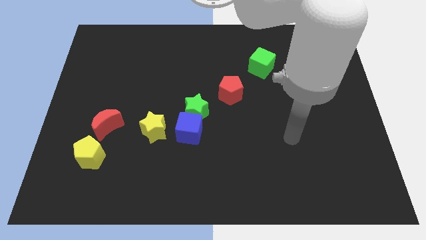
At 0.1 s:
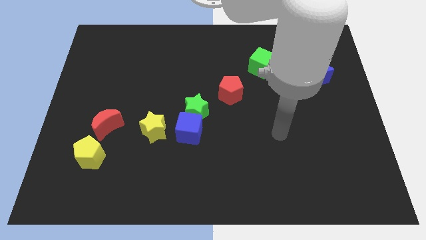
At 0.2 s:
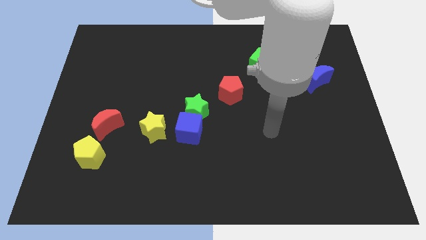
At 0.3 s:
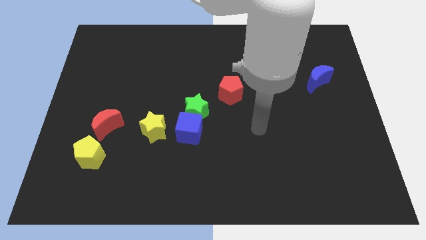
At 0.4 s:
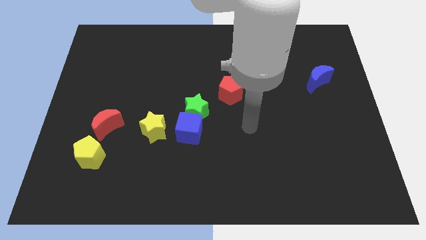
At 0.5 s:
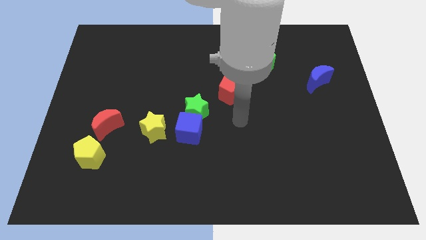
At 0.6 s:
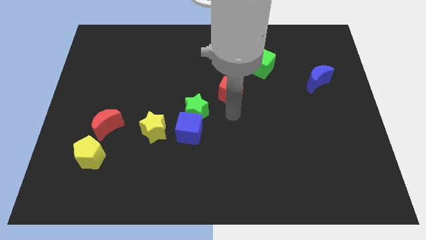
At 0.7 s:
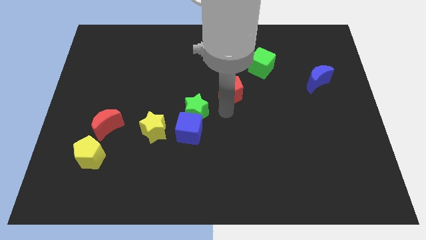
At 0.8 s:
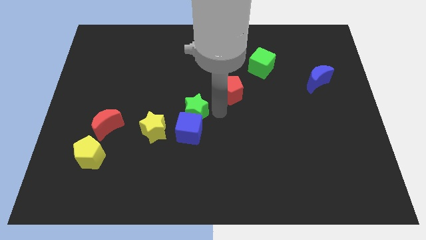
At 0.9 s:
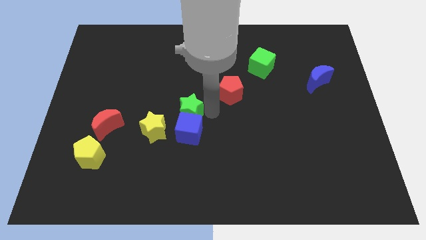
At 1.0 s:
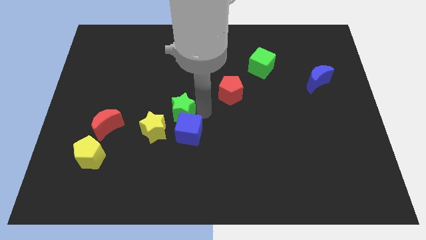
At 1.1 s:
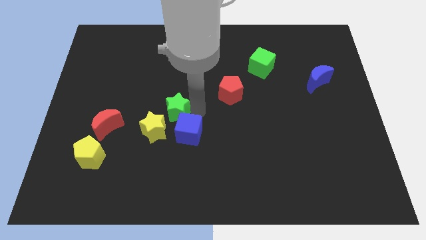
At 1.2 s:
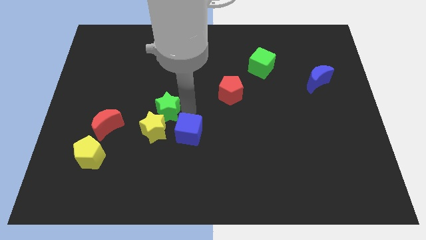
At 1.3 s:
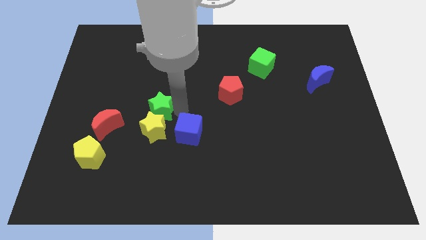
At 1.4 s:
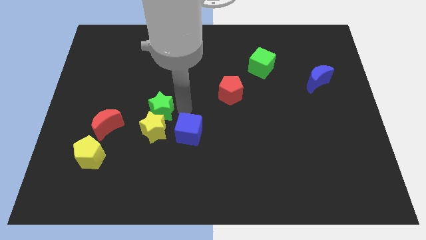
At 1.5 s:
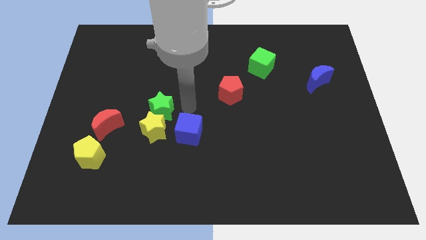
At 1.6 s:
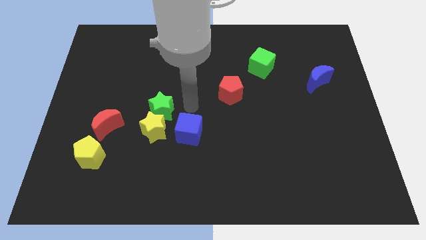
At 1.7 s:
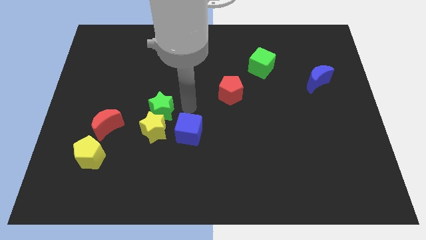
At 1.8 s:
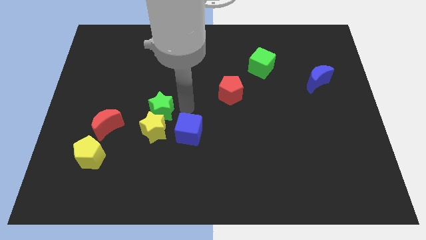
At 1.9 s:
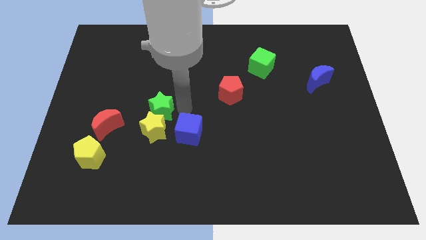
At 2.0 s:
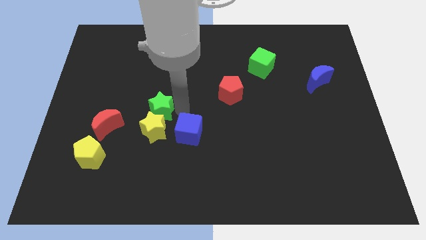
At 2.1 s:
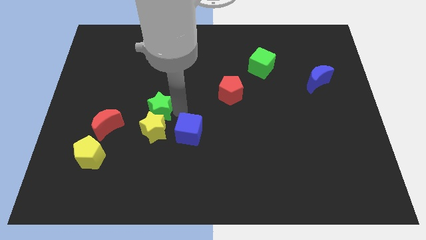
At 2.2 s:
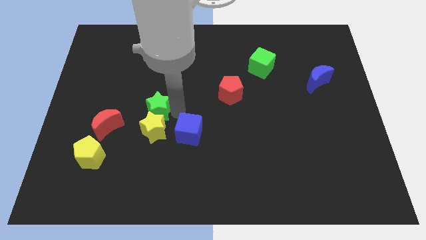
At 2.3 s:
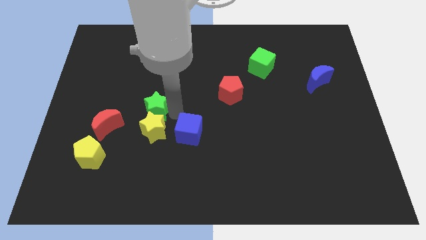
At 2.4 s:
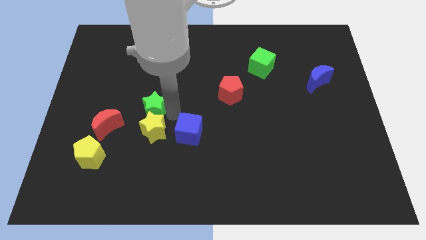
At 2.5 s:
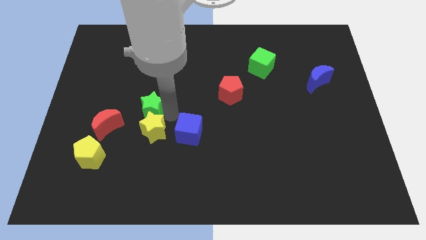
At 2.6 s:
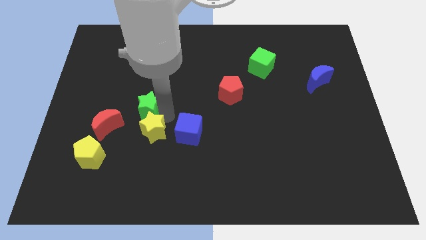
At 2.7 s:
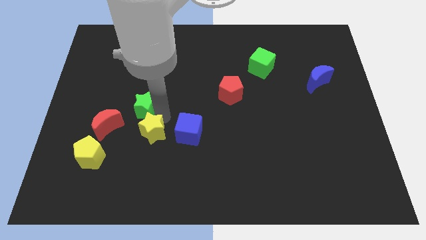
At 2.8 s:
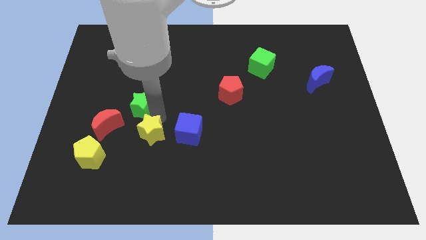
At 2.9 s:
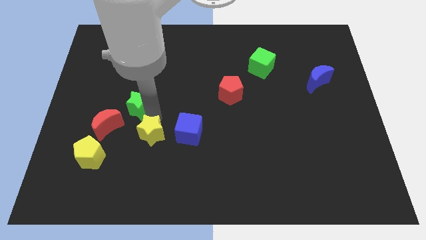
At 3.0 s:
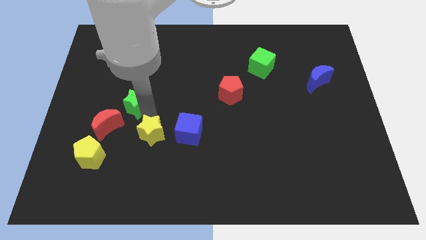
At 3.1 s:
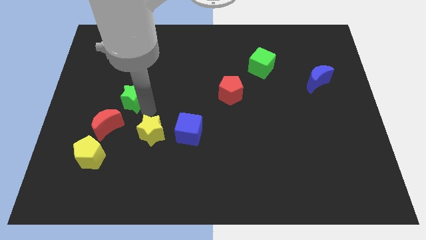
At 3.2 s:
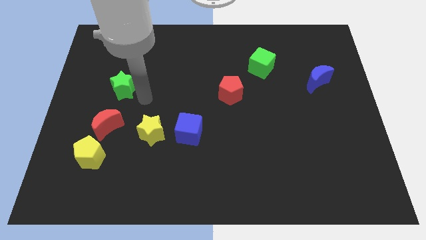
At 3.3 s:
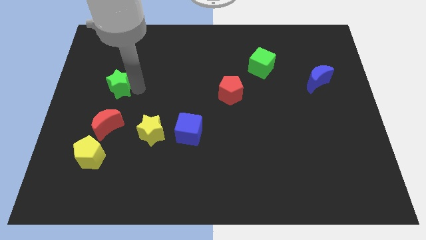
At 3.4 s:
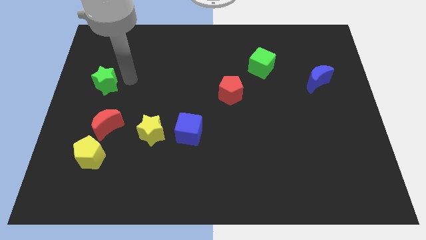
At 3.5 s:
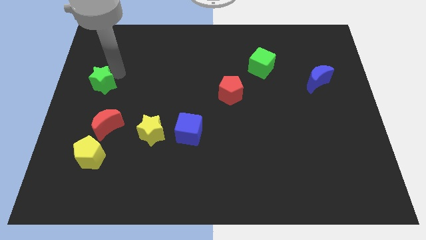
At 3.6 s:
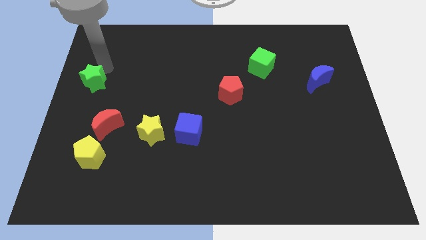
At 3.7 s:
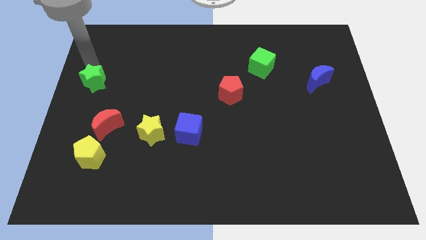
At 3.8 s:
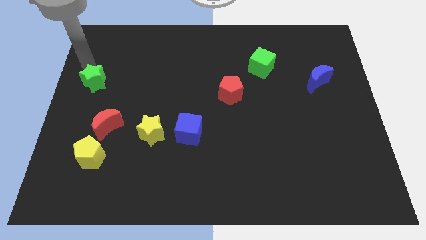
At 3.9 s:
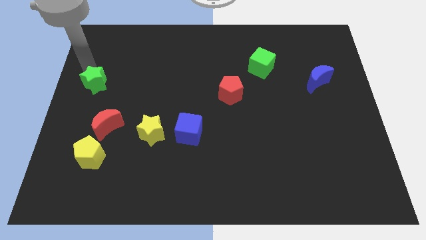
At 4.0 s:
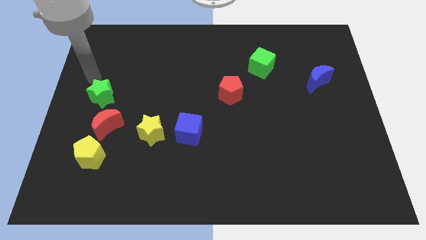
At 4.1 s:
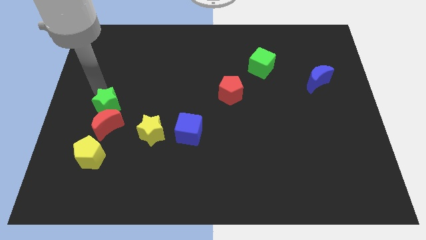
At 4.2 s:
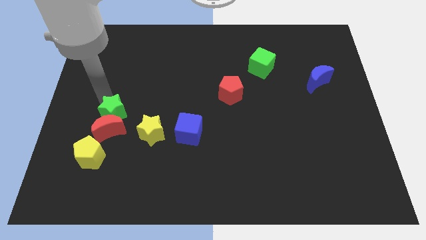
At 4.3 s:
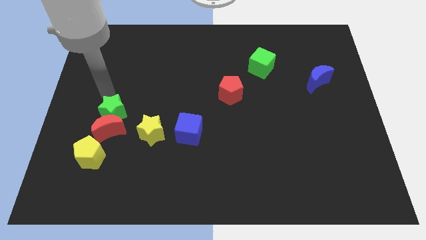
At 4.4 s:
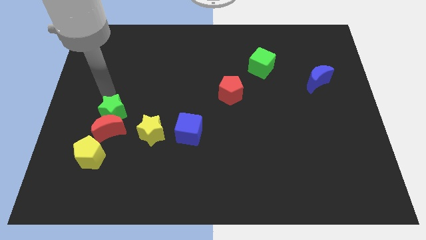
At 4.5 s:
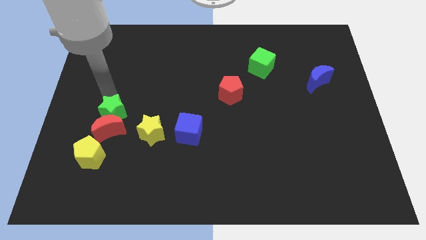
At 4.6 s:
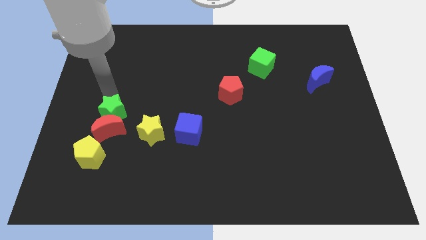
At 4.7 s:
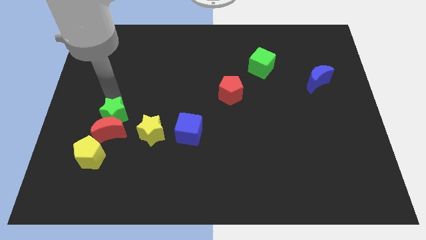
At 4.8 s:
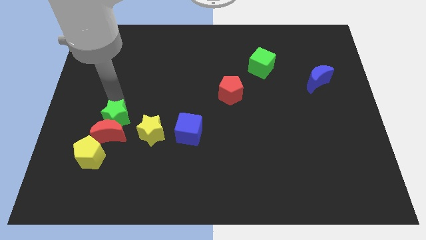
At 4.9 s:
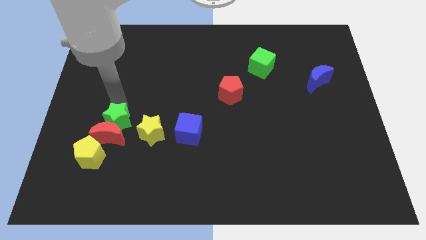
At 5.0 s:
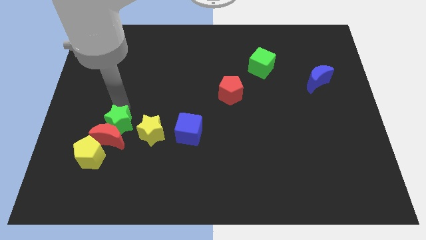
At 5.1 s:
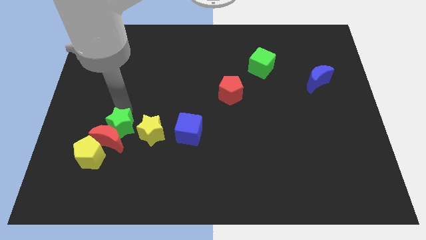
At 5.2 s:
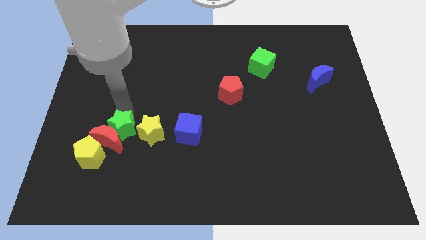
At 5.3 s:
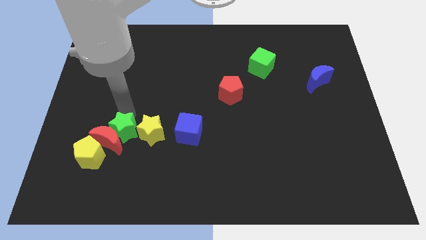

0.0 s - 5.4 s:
put the green star to the bottom left of the yellow star

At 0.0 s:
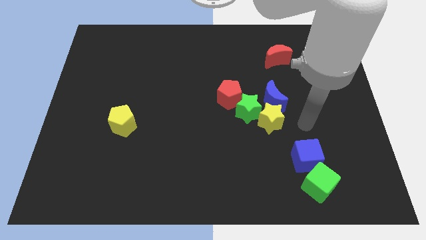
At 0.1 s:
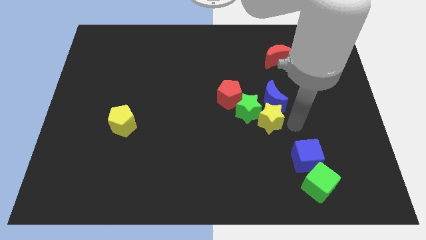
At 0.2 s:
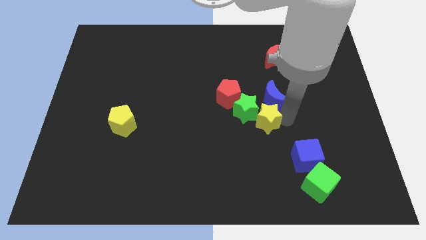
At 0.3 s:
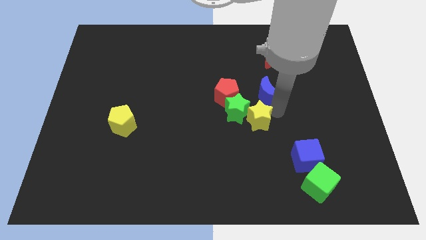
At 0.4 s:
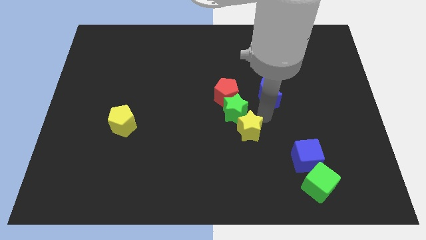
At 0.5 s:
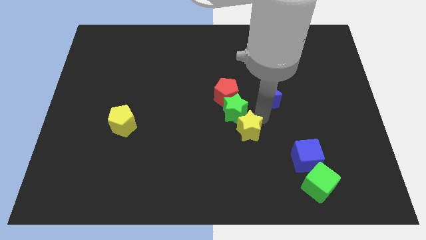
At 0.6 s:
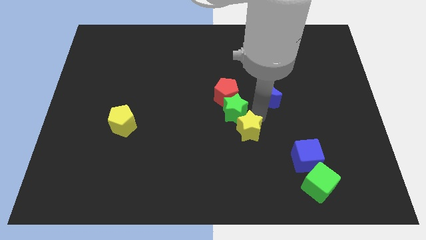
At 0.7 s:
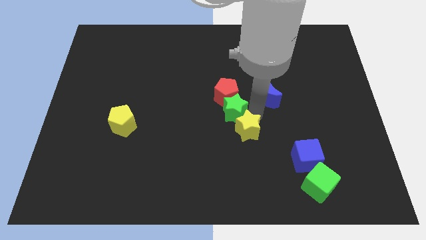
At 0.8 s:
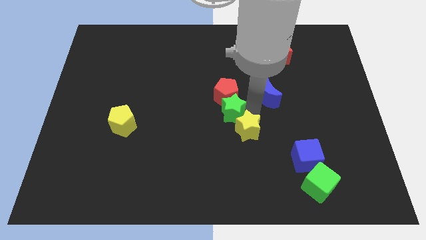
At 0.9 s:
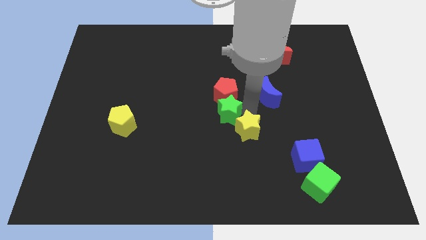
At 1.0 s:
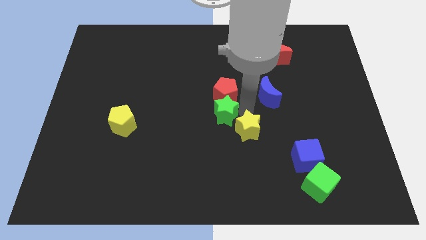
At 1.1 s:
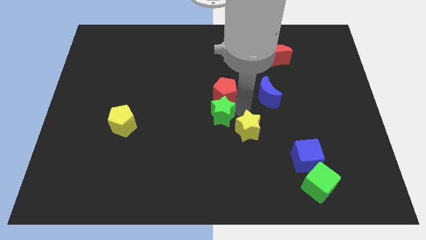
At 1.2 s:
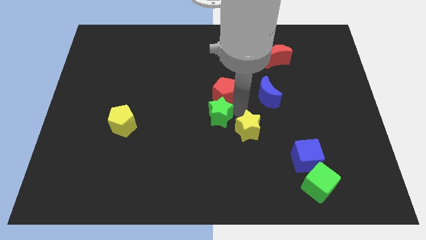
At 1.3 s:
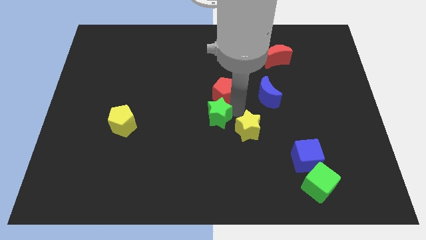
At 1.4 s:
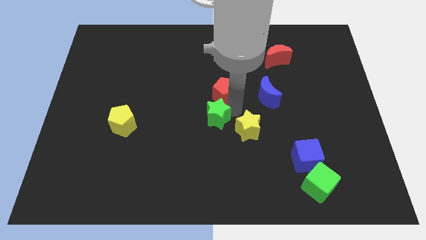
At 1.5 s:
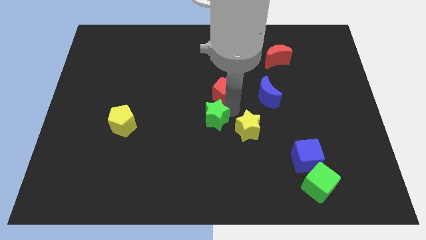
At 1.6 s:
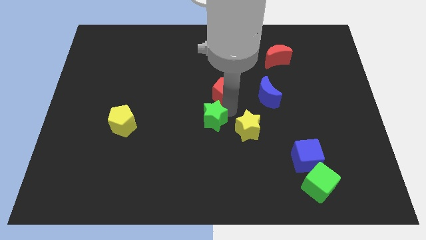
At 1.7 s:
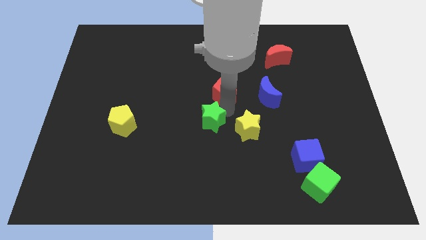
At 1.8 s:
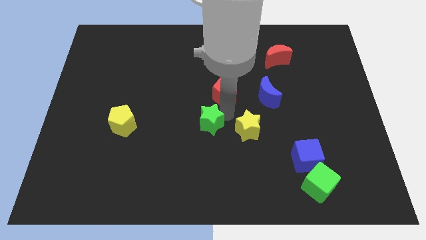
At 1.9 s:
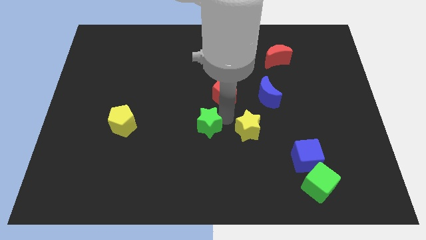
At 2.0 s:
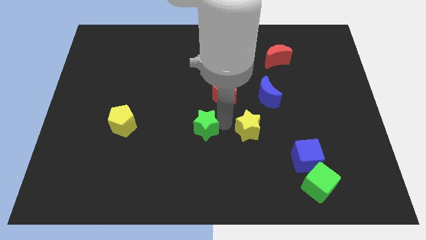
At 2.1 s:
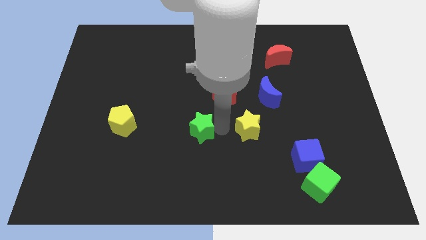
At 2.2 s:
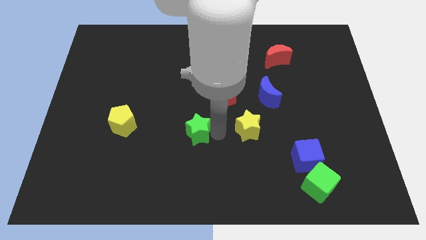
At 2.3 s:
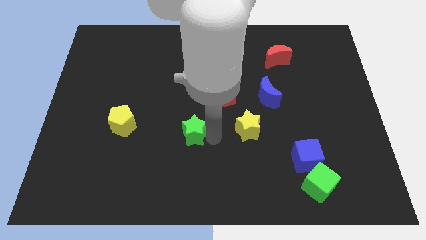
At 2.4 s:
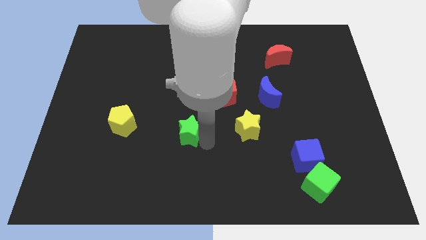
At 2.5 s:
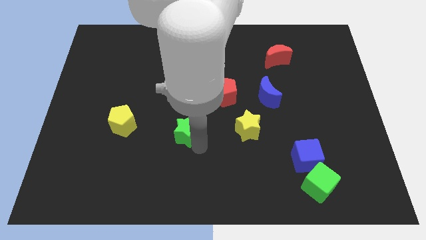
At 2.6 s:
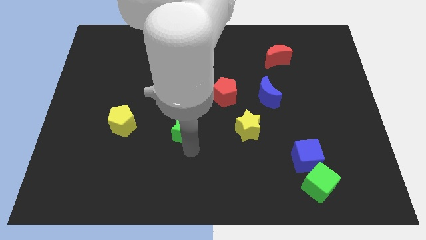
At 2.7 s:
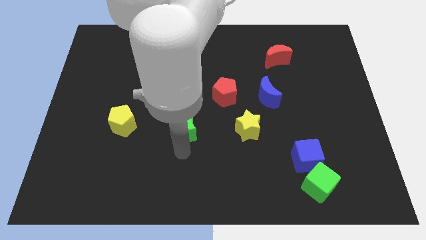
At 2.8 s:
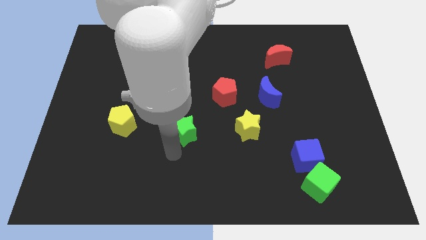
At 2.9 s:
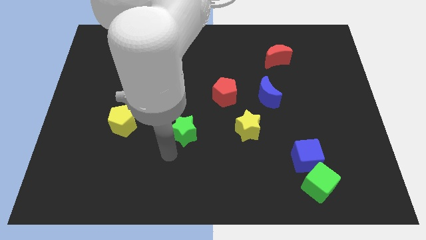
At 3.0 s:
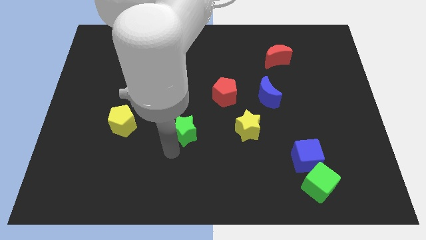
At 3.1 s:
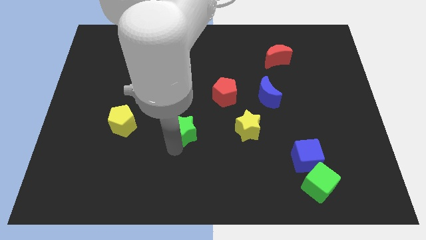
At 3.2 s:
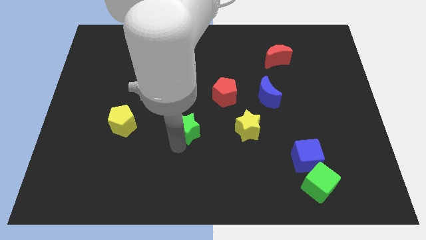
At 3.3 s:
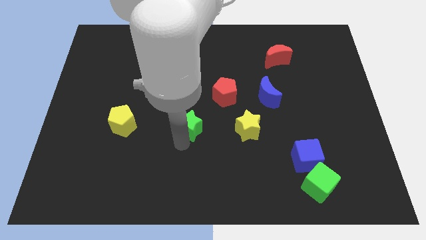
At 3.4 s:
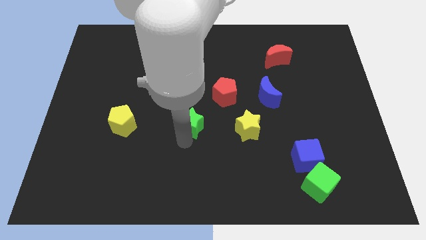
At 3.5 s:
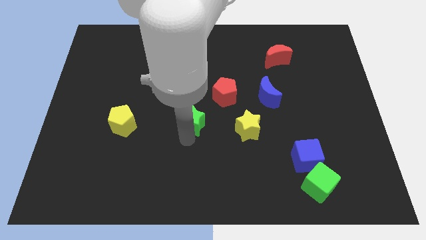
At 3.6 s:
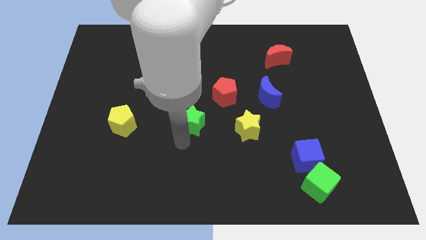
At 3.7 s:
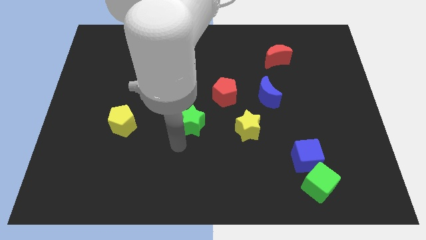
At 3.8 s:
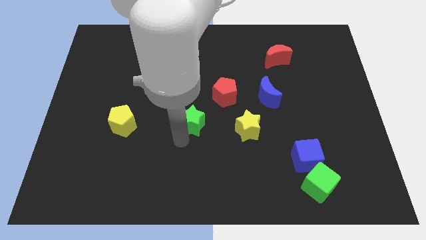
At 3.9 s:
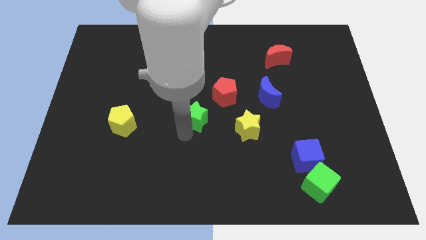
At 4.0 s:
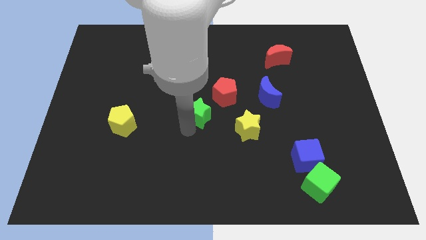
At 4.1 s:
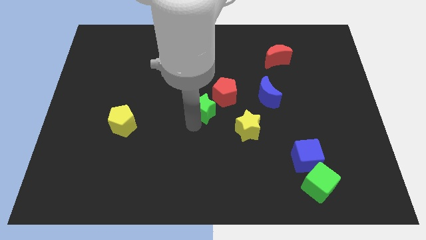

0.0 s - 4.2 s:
move the green star to the left of the red pentagon
